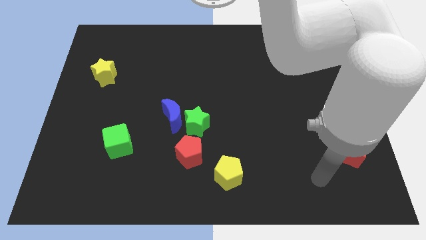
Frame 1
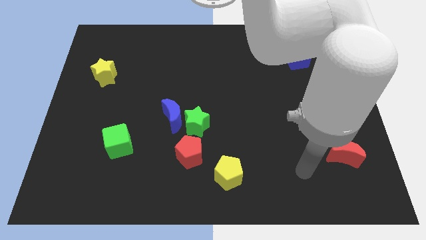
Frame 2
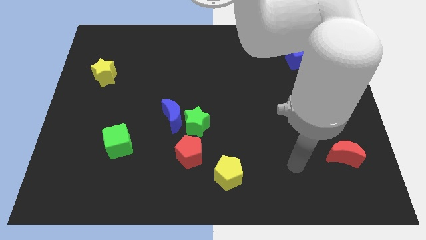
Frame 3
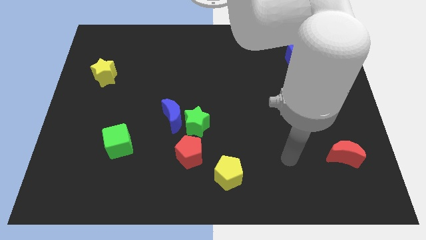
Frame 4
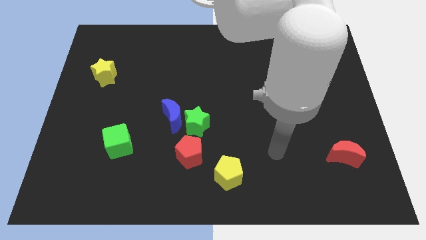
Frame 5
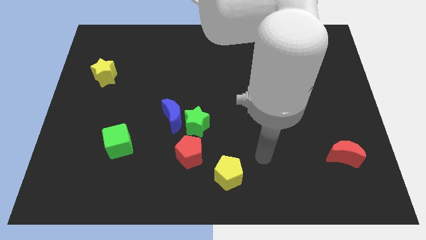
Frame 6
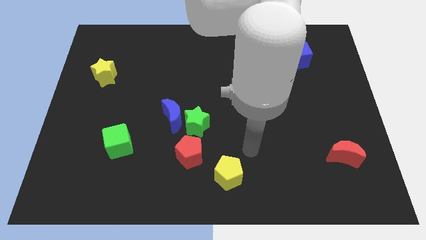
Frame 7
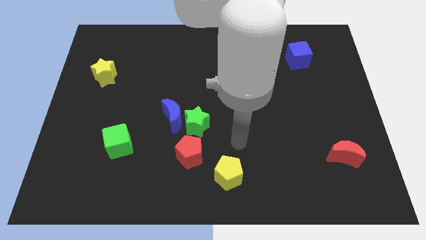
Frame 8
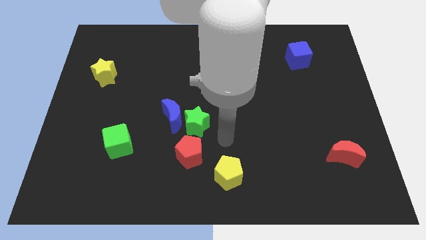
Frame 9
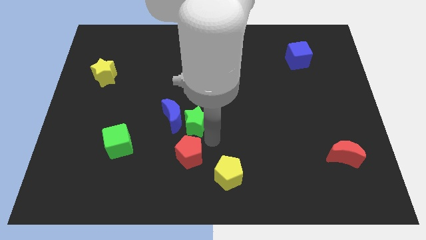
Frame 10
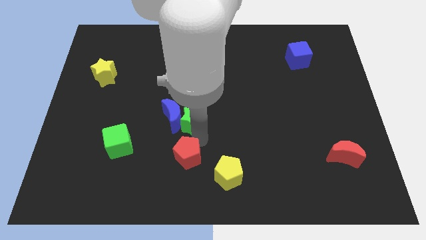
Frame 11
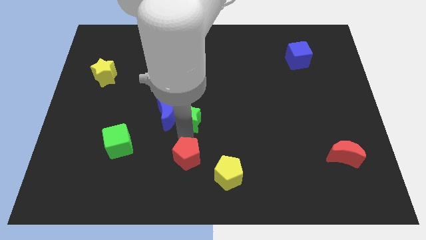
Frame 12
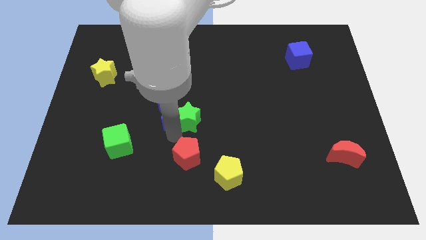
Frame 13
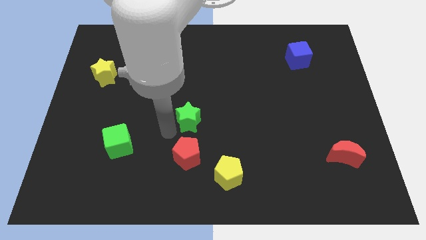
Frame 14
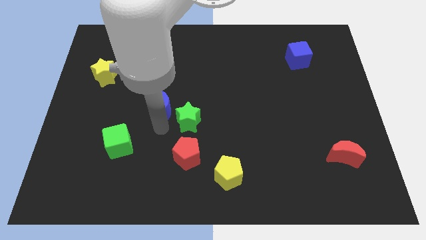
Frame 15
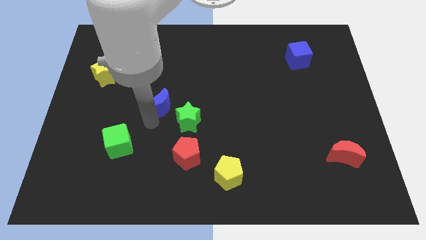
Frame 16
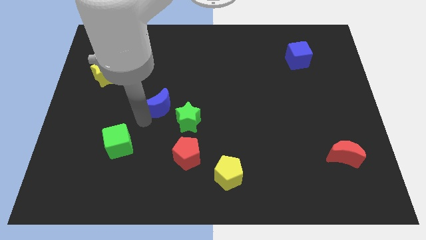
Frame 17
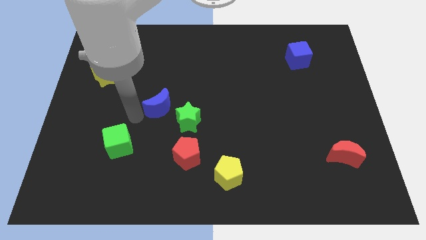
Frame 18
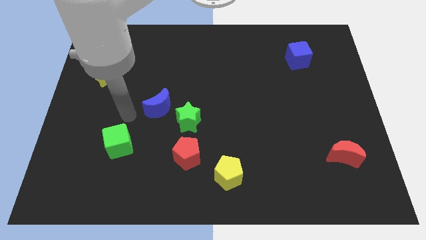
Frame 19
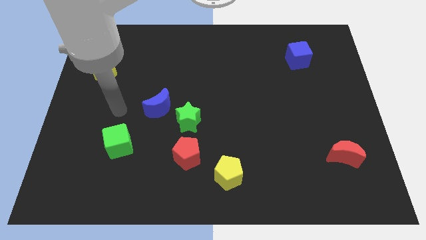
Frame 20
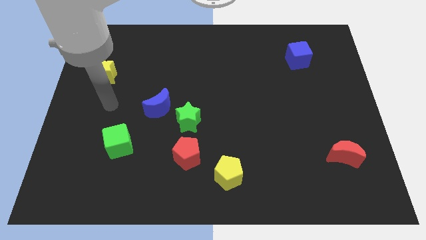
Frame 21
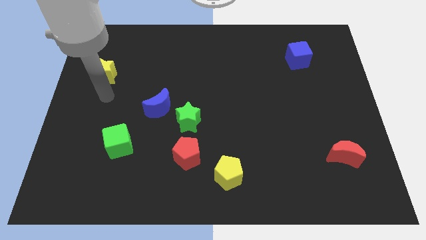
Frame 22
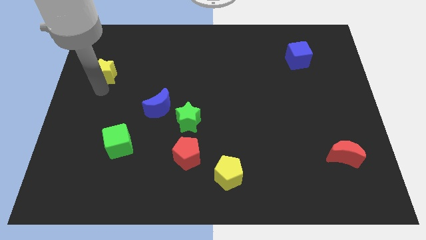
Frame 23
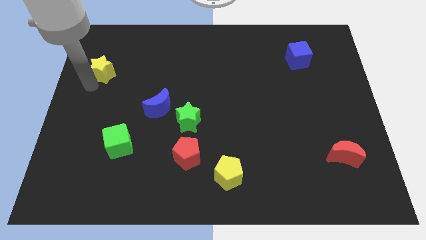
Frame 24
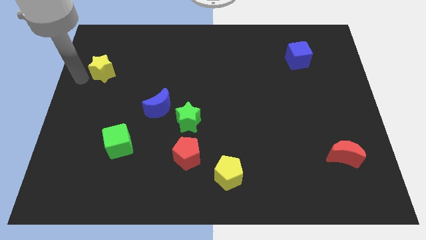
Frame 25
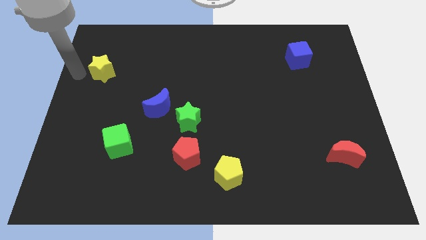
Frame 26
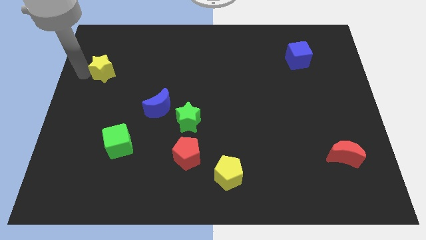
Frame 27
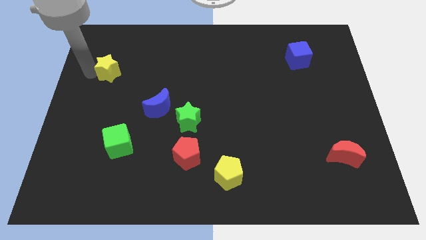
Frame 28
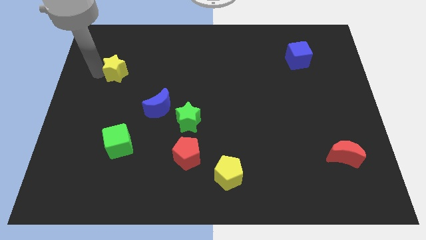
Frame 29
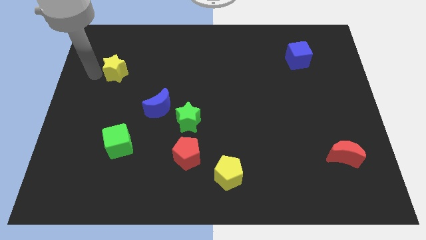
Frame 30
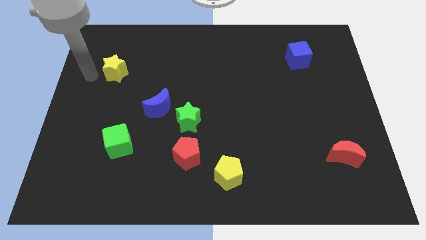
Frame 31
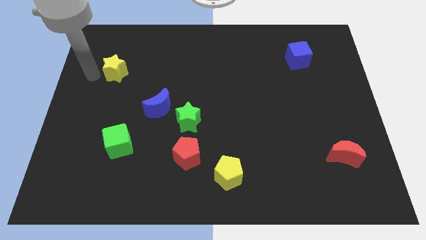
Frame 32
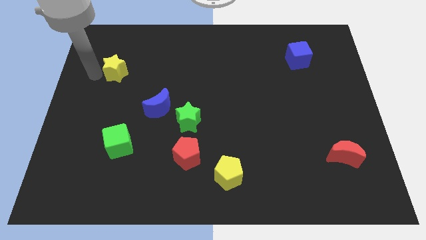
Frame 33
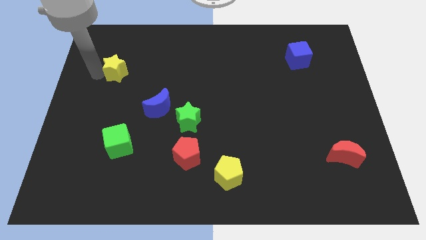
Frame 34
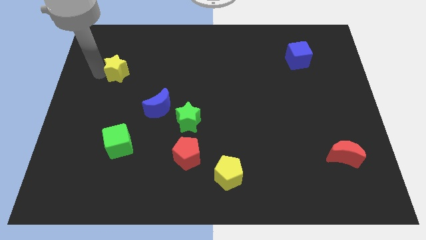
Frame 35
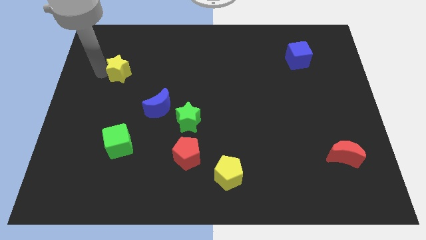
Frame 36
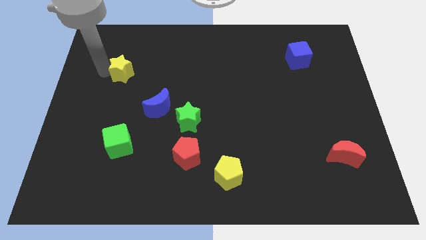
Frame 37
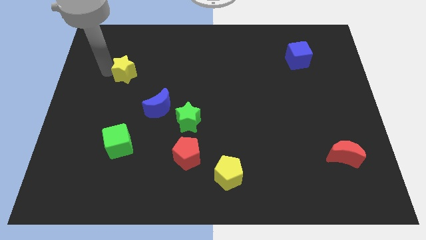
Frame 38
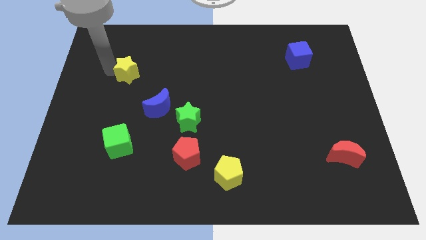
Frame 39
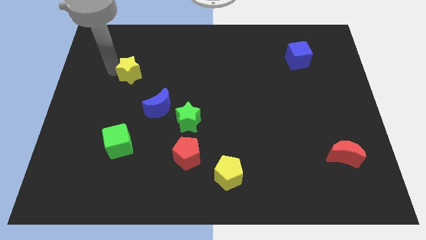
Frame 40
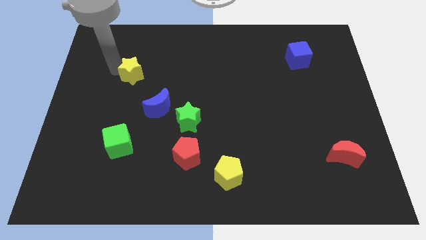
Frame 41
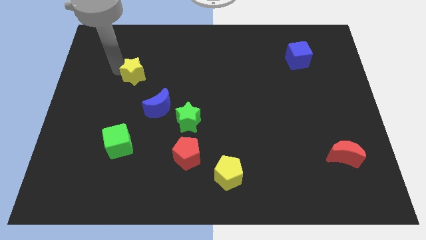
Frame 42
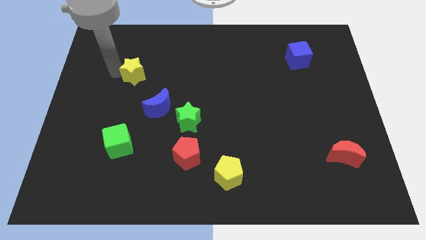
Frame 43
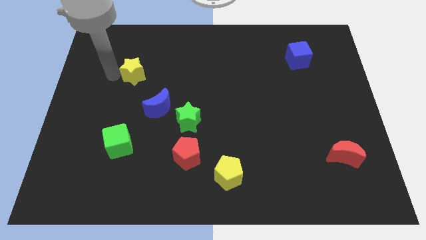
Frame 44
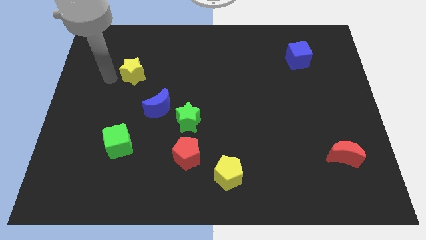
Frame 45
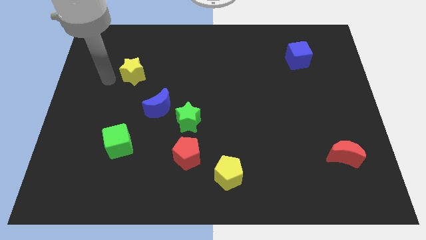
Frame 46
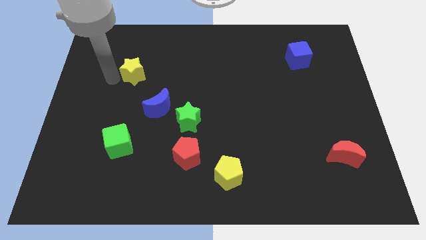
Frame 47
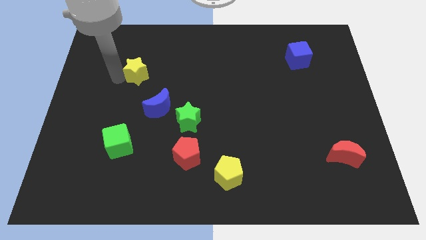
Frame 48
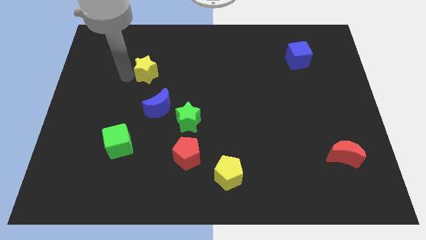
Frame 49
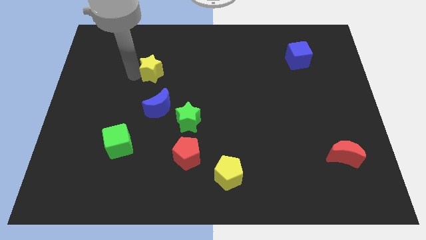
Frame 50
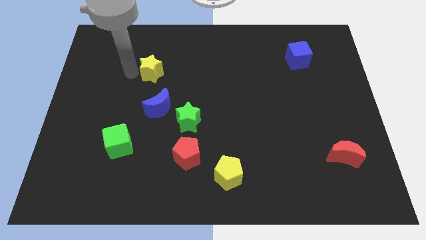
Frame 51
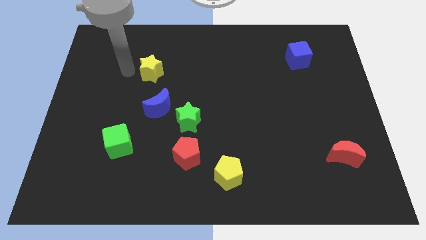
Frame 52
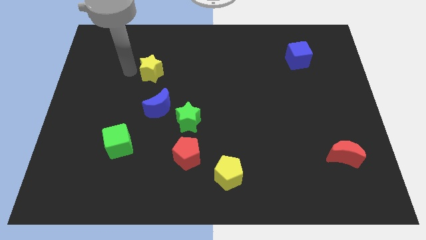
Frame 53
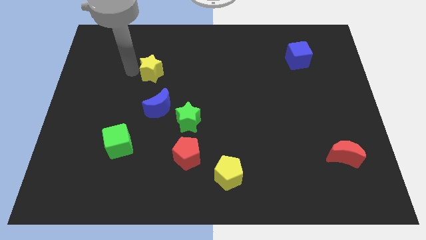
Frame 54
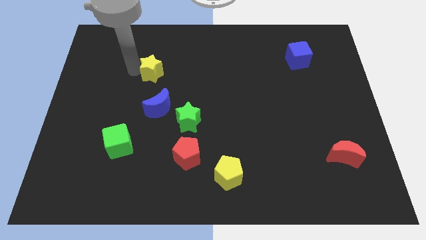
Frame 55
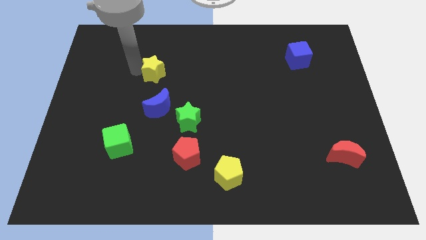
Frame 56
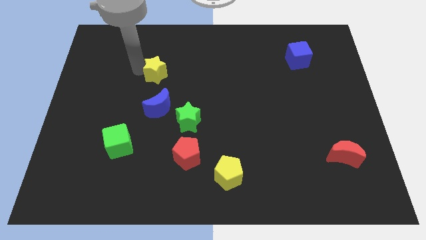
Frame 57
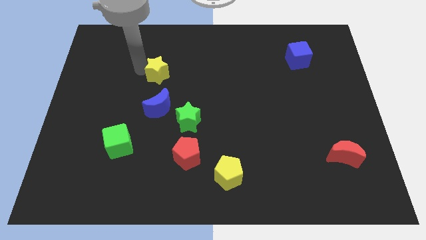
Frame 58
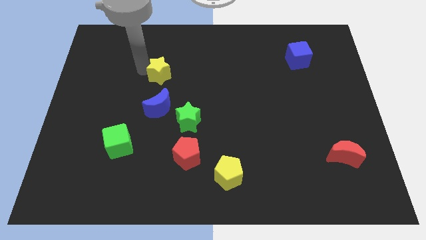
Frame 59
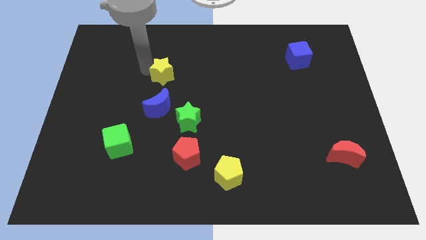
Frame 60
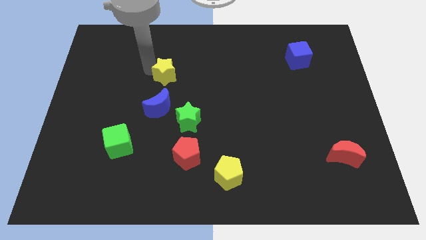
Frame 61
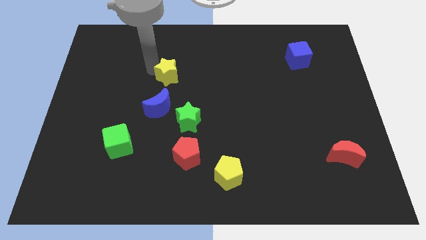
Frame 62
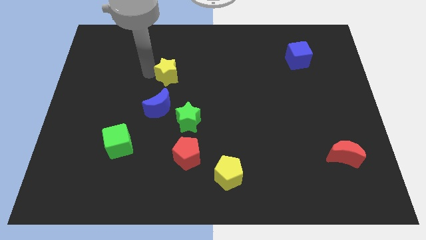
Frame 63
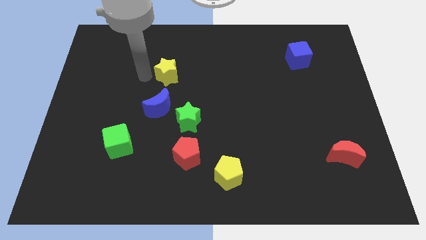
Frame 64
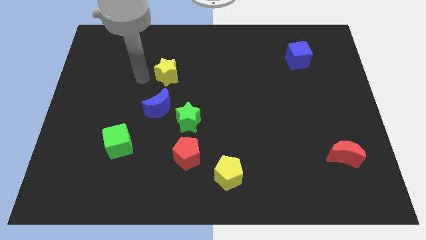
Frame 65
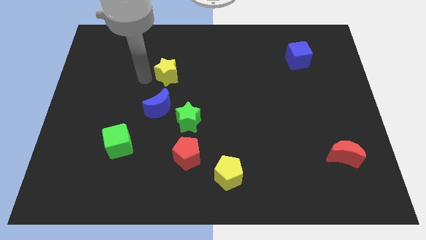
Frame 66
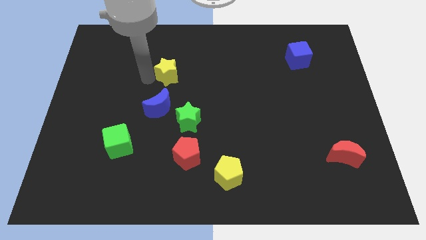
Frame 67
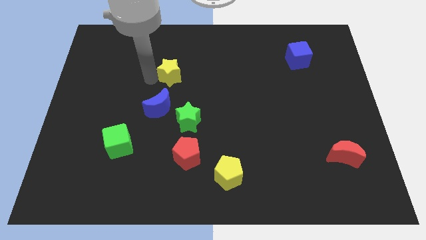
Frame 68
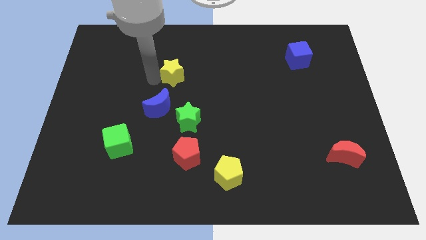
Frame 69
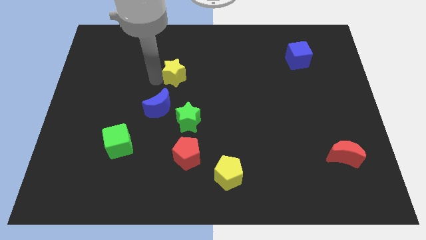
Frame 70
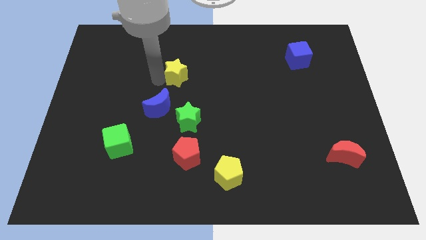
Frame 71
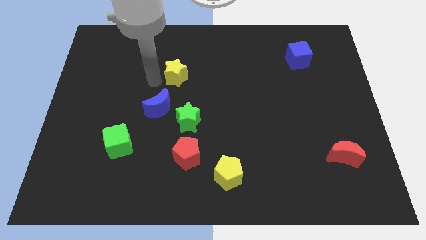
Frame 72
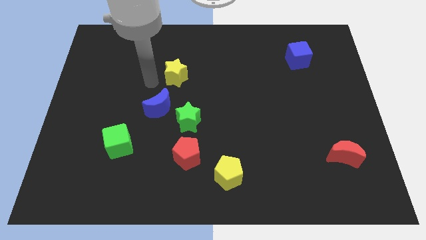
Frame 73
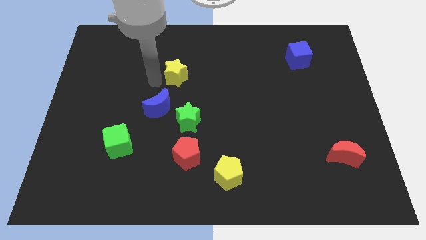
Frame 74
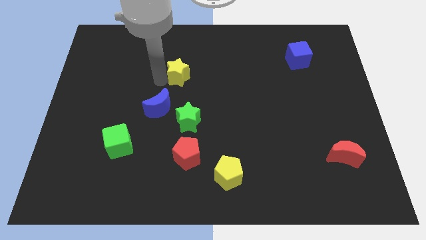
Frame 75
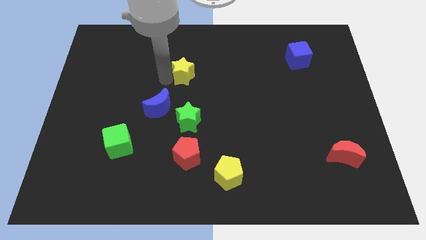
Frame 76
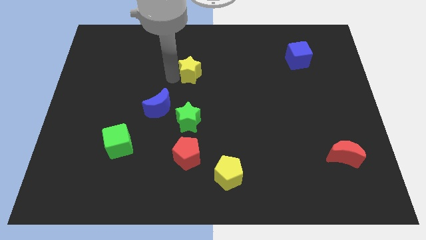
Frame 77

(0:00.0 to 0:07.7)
move the yellow star to the right

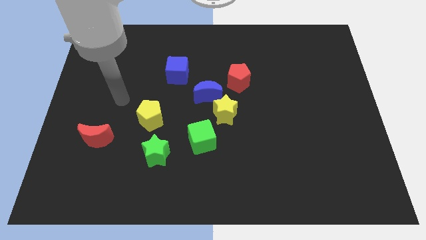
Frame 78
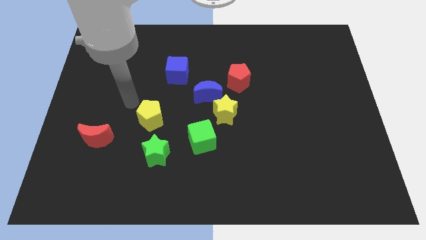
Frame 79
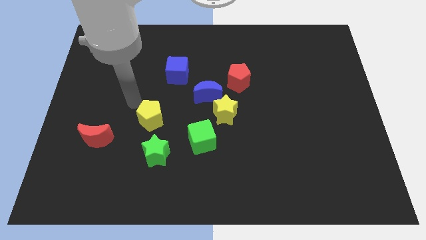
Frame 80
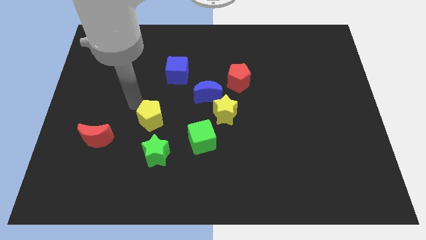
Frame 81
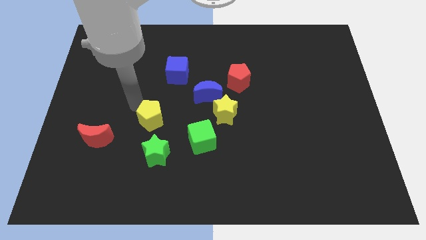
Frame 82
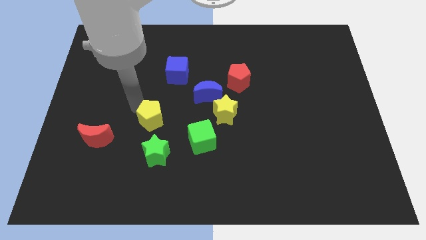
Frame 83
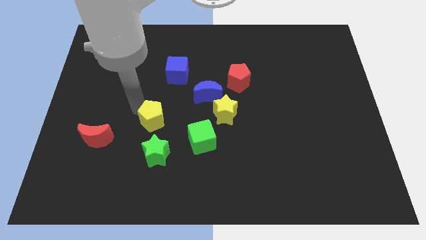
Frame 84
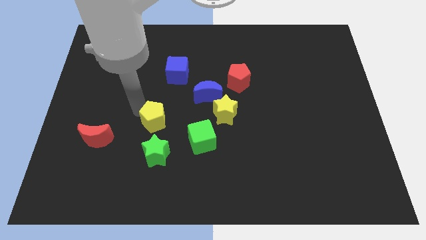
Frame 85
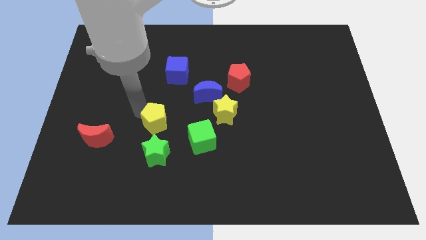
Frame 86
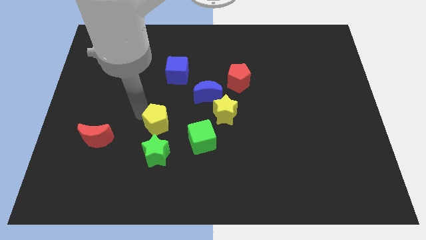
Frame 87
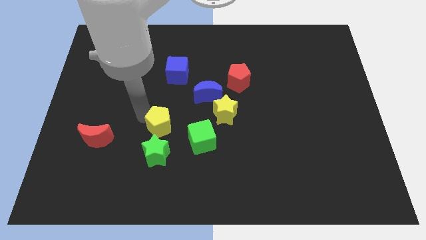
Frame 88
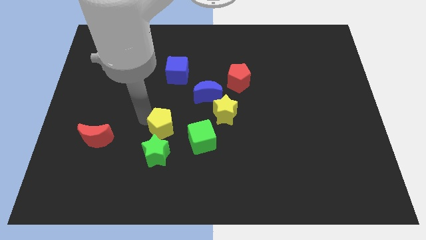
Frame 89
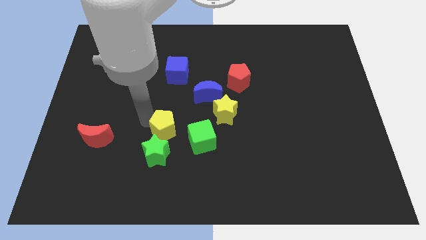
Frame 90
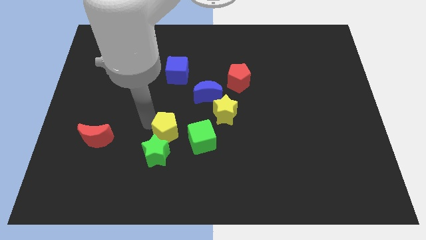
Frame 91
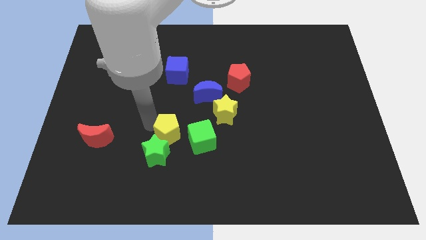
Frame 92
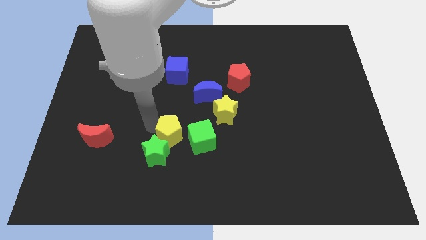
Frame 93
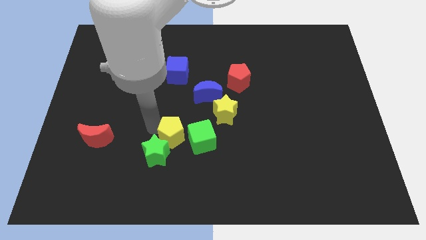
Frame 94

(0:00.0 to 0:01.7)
slide the yellow pentagon down and right a bit
